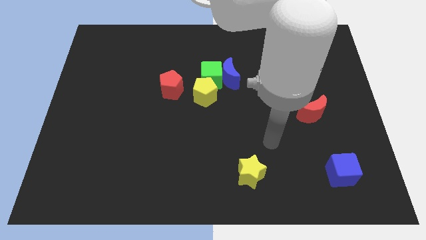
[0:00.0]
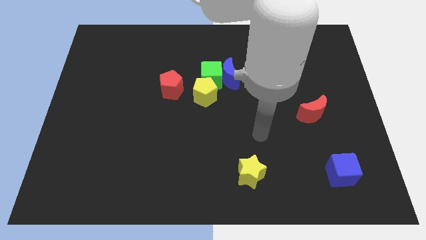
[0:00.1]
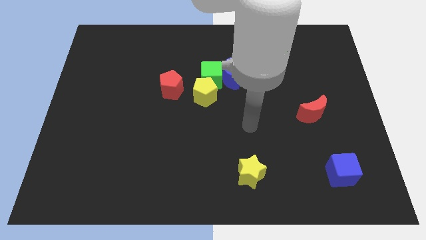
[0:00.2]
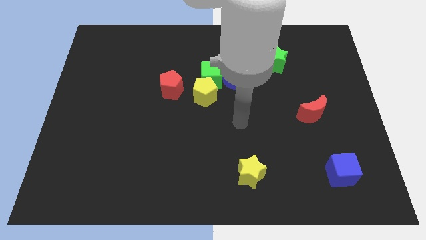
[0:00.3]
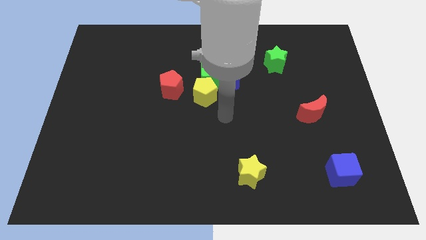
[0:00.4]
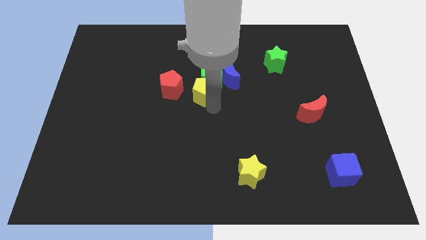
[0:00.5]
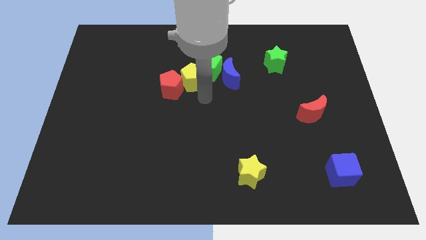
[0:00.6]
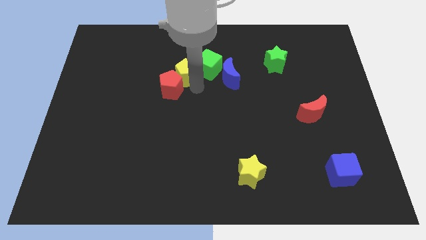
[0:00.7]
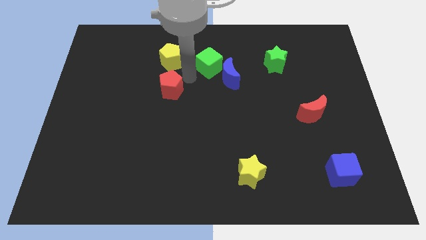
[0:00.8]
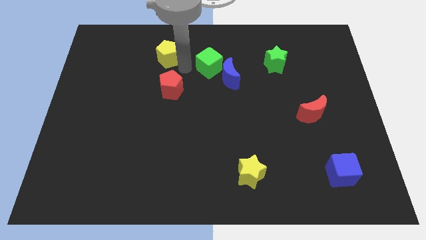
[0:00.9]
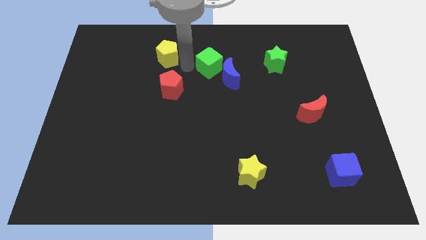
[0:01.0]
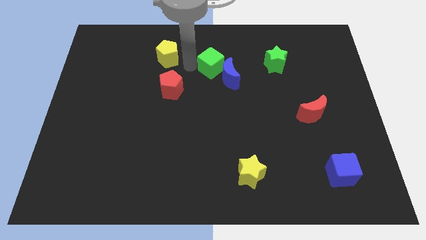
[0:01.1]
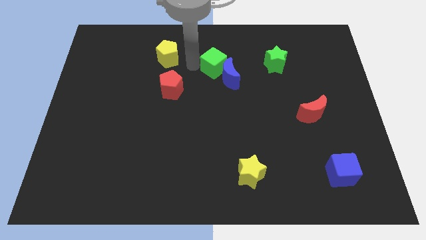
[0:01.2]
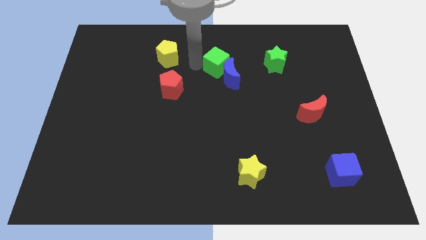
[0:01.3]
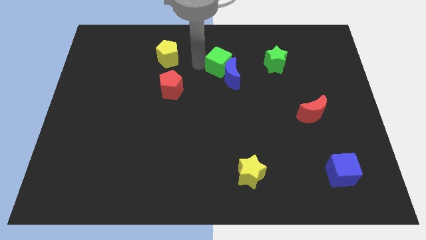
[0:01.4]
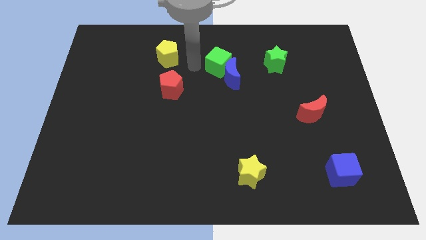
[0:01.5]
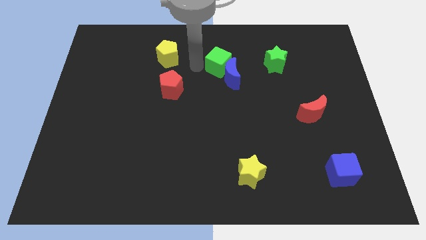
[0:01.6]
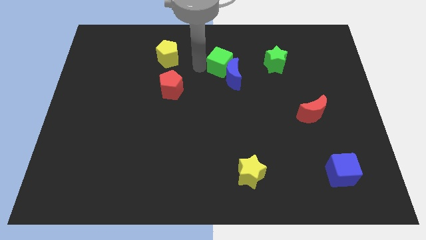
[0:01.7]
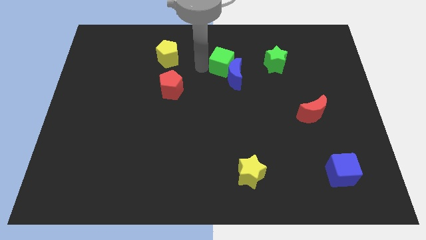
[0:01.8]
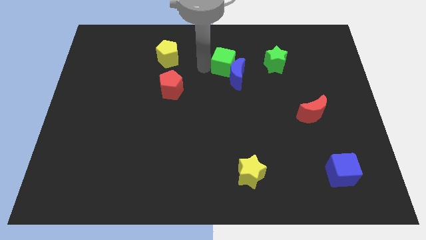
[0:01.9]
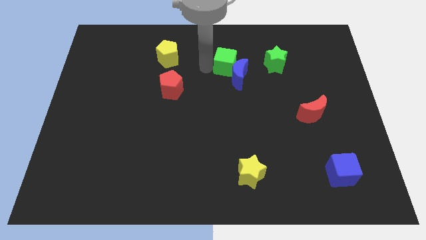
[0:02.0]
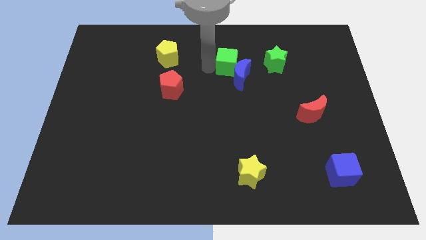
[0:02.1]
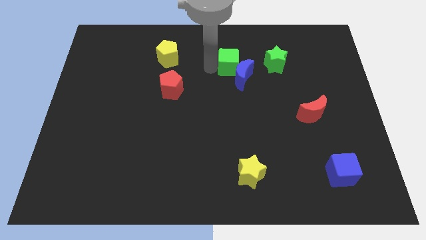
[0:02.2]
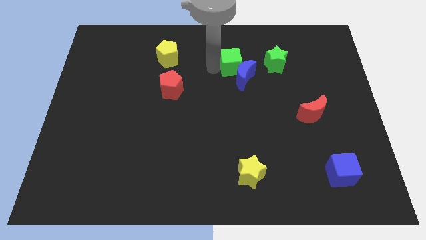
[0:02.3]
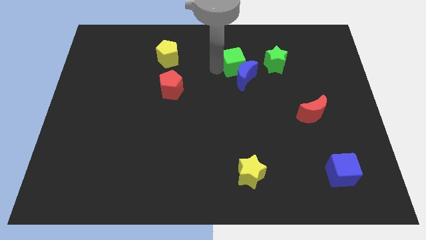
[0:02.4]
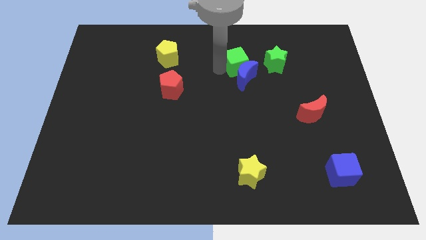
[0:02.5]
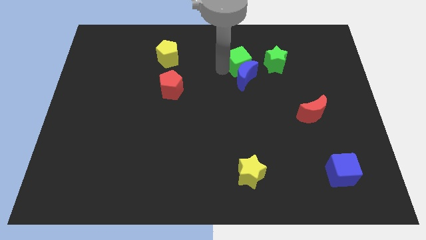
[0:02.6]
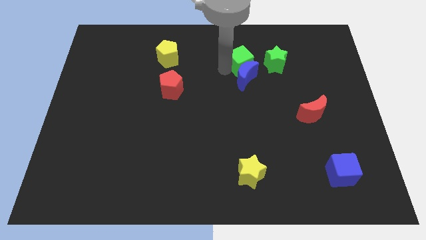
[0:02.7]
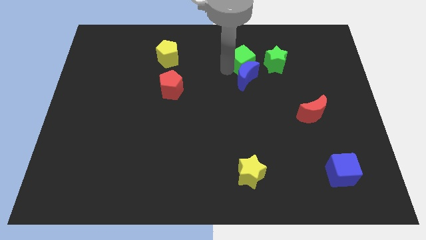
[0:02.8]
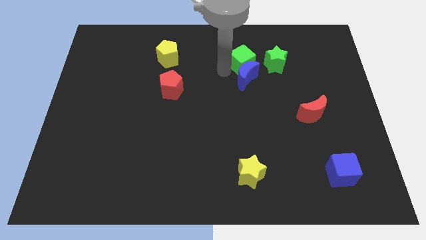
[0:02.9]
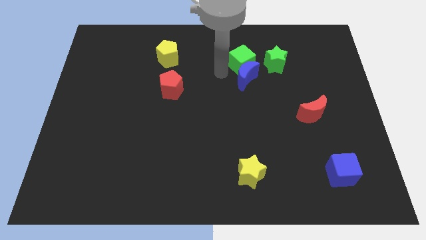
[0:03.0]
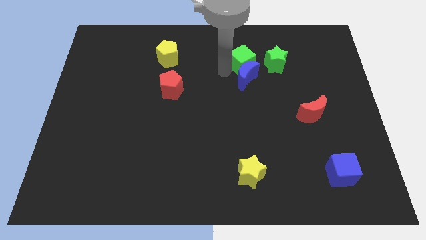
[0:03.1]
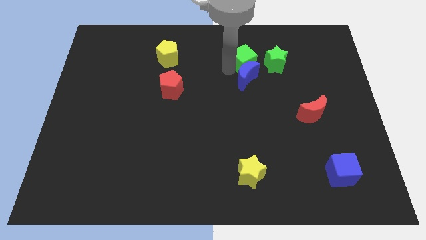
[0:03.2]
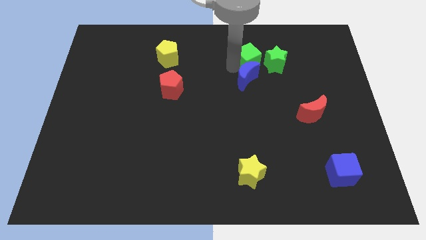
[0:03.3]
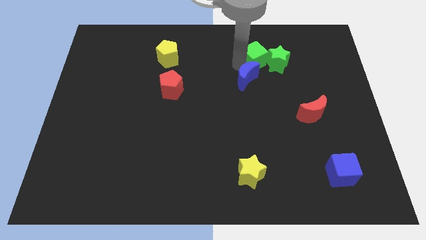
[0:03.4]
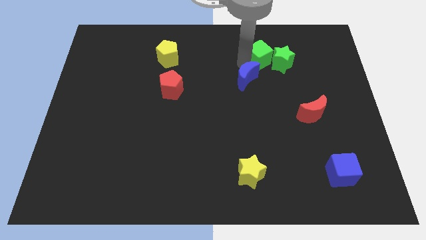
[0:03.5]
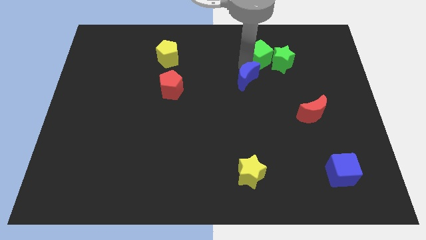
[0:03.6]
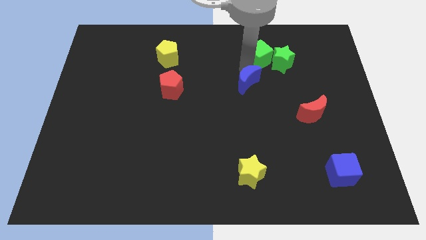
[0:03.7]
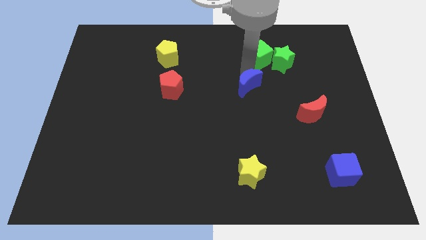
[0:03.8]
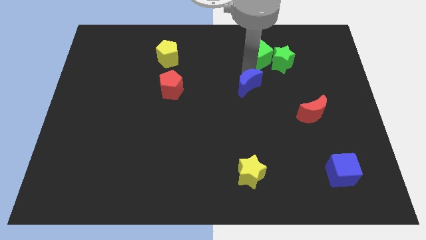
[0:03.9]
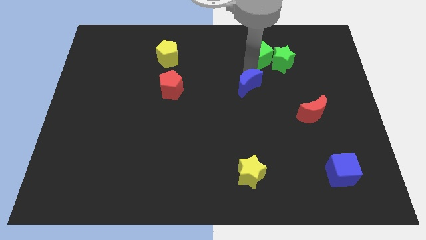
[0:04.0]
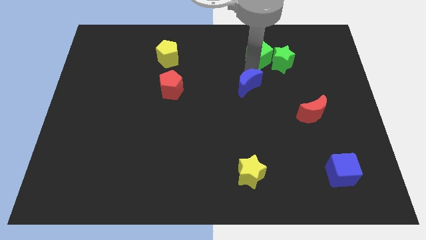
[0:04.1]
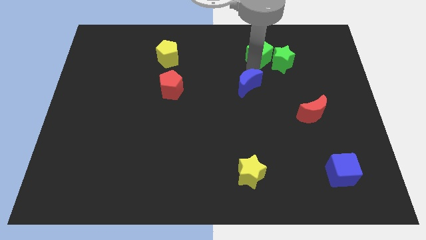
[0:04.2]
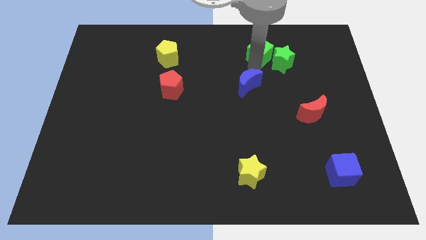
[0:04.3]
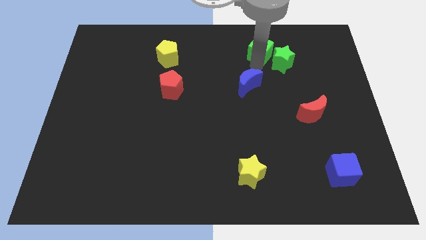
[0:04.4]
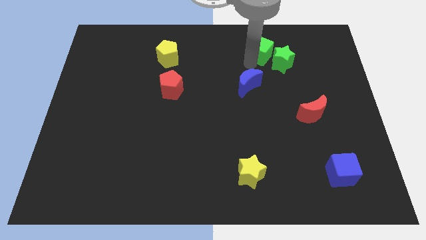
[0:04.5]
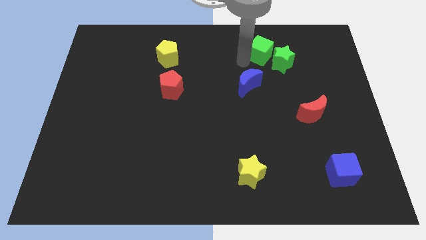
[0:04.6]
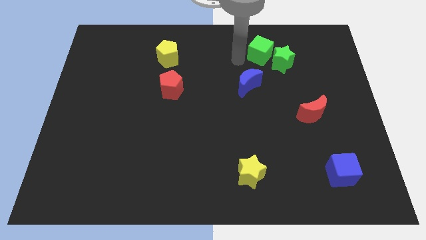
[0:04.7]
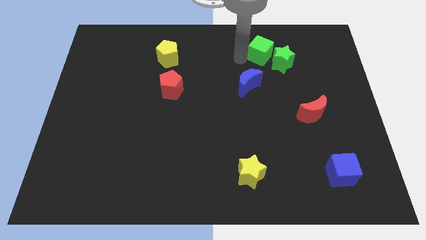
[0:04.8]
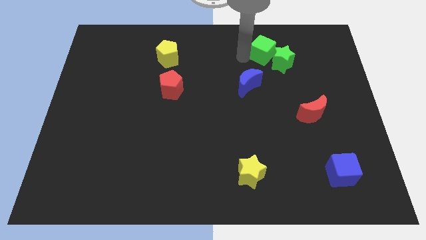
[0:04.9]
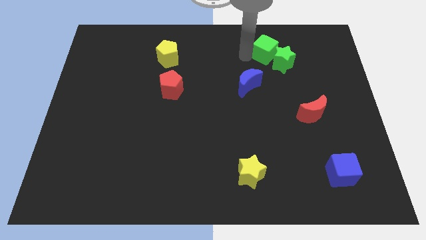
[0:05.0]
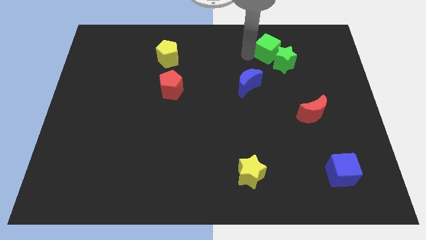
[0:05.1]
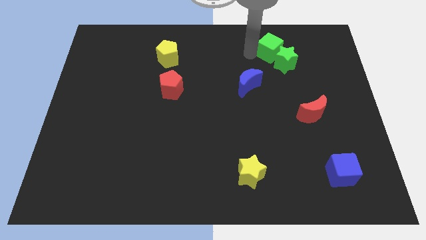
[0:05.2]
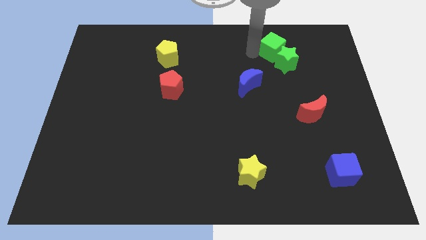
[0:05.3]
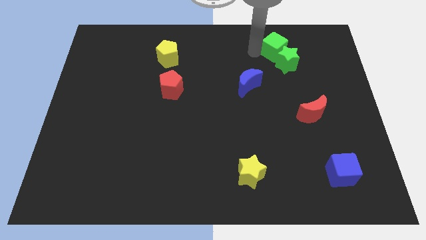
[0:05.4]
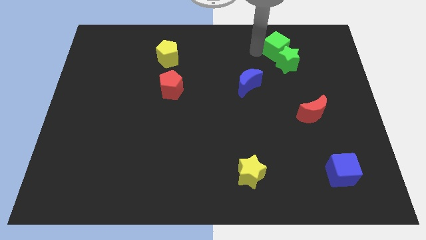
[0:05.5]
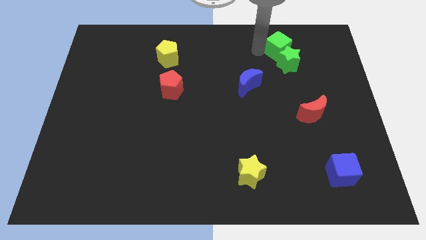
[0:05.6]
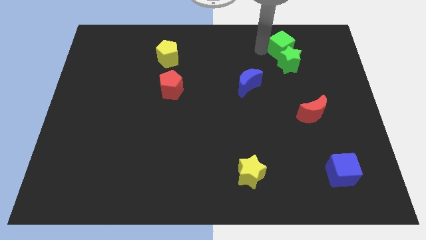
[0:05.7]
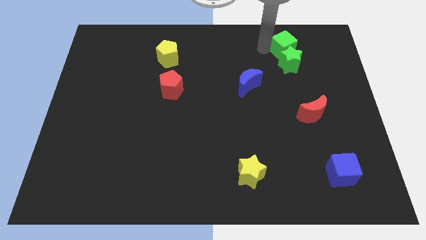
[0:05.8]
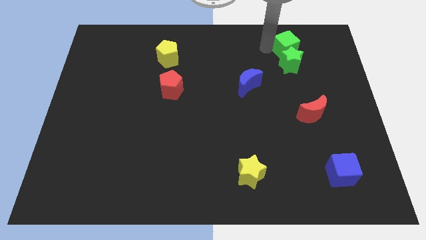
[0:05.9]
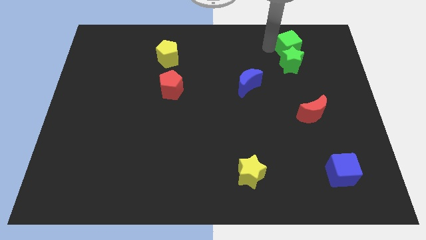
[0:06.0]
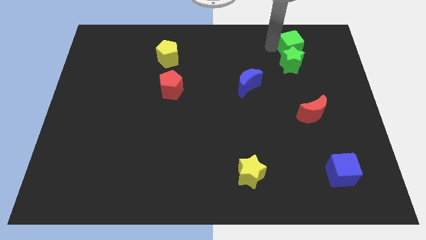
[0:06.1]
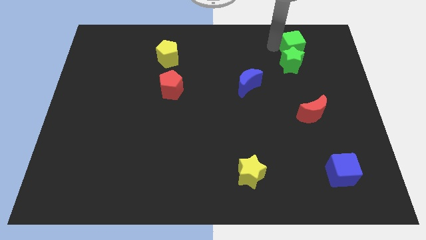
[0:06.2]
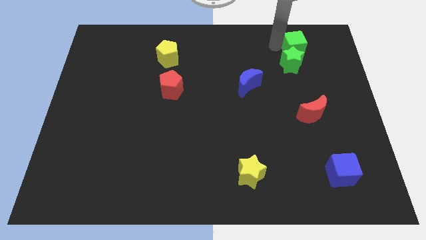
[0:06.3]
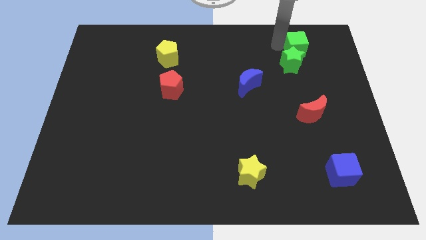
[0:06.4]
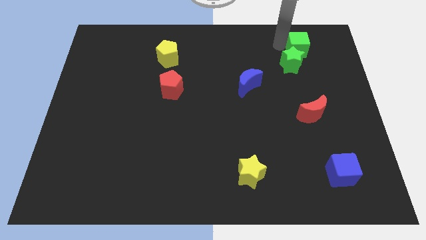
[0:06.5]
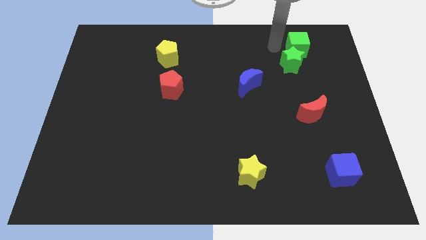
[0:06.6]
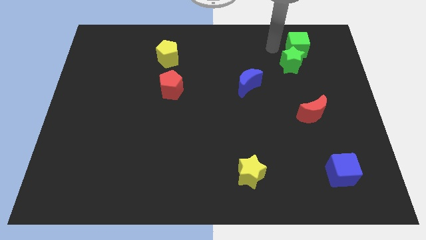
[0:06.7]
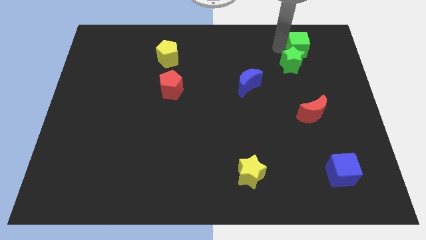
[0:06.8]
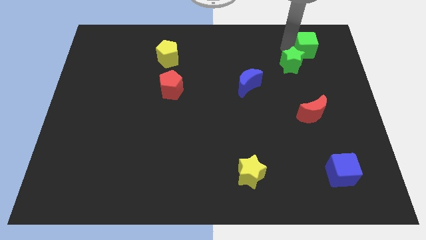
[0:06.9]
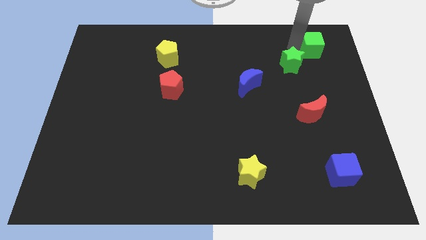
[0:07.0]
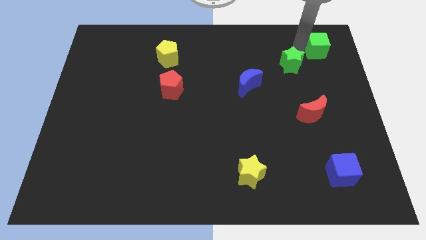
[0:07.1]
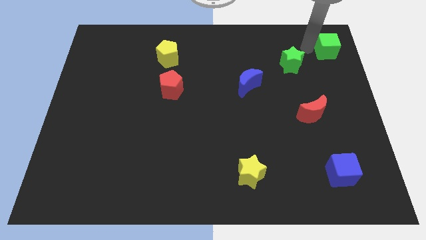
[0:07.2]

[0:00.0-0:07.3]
move the green cube to the top right of the board
